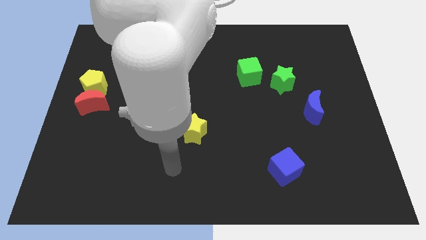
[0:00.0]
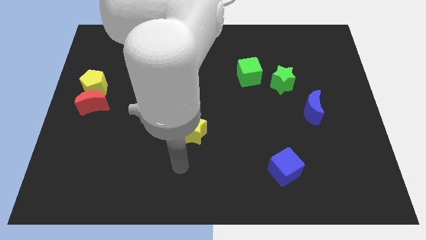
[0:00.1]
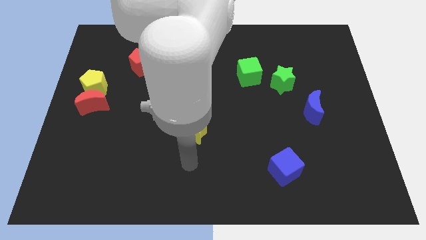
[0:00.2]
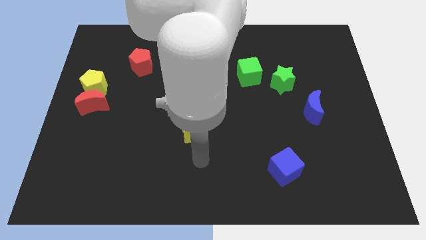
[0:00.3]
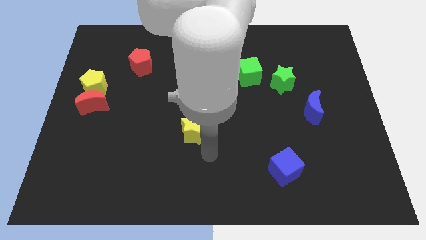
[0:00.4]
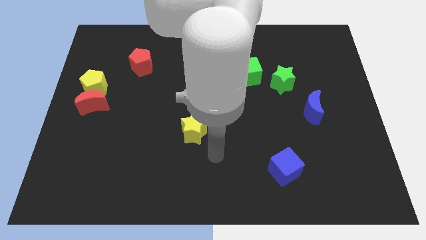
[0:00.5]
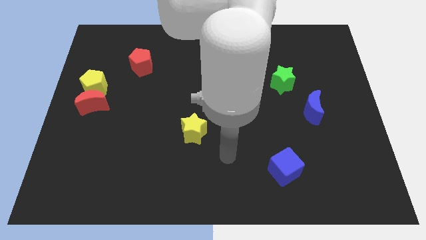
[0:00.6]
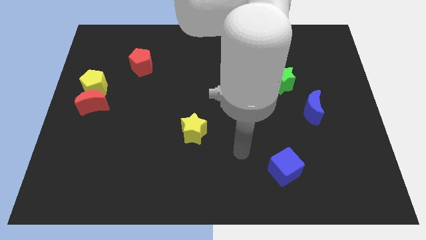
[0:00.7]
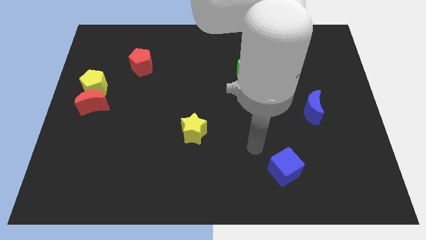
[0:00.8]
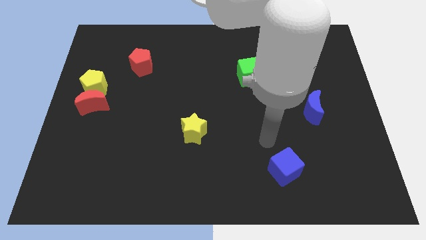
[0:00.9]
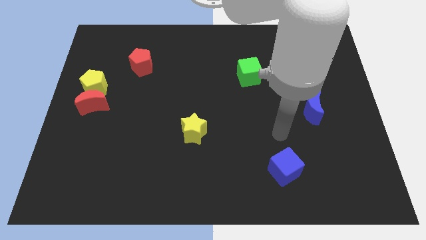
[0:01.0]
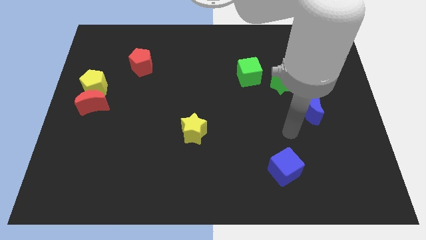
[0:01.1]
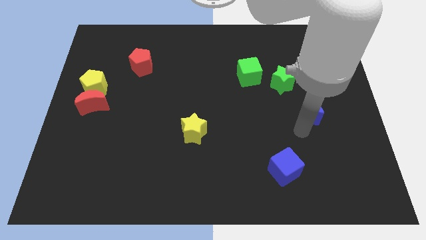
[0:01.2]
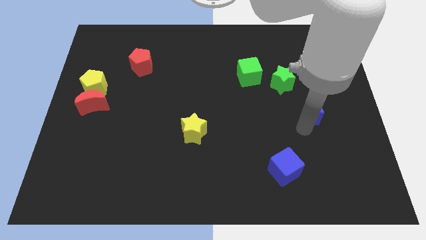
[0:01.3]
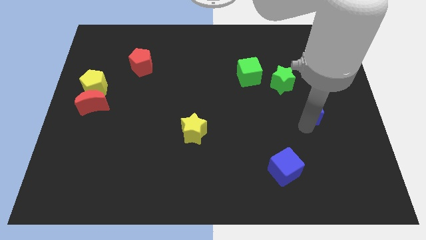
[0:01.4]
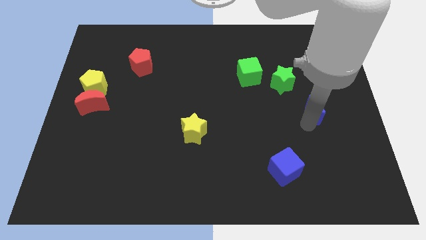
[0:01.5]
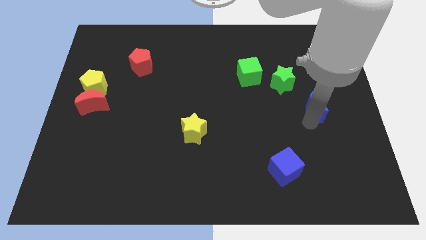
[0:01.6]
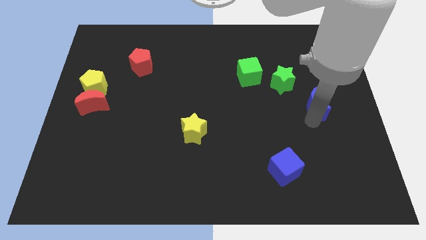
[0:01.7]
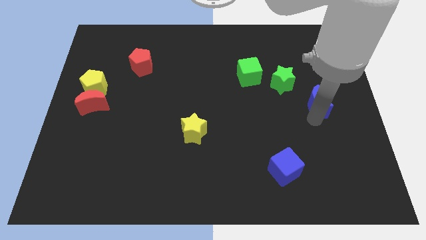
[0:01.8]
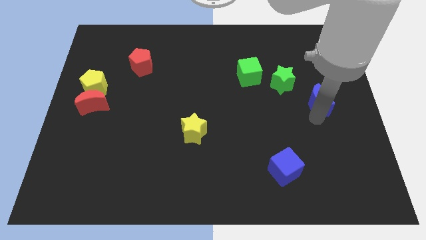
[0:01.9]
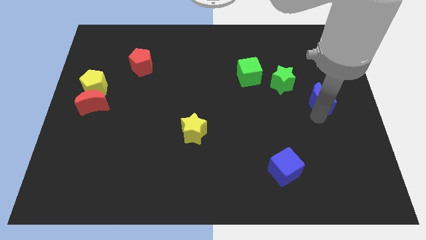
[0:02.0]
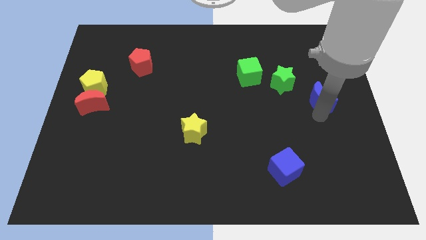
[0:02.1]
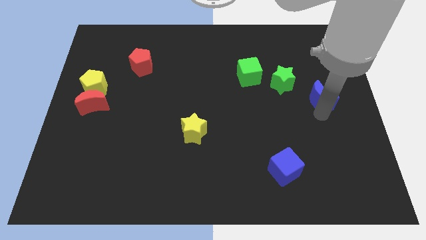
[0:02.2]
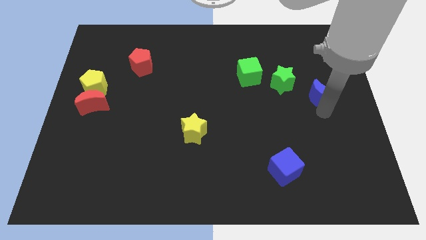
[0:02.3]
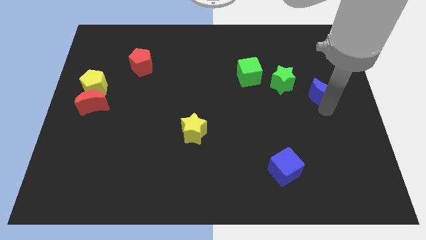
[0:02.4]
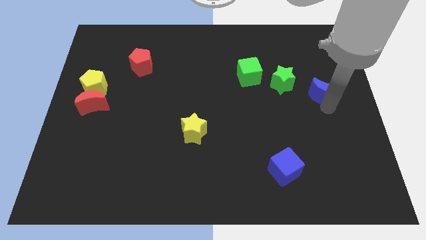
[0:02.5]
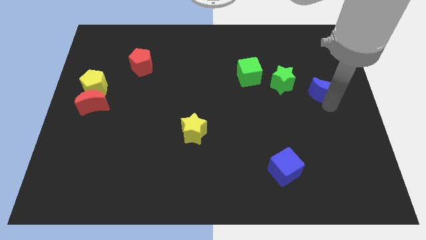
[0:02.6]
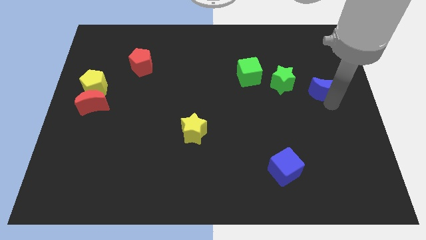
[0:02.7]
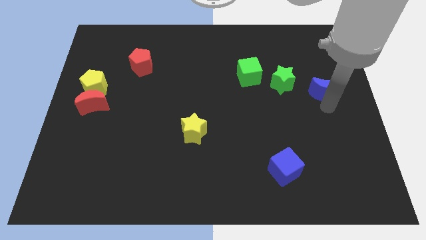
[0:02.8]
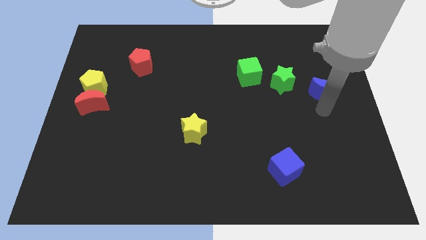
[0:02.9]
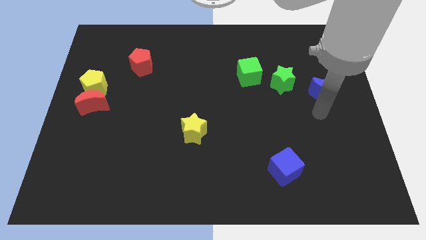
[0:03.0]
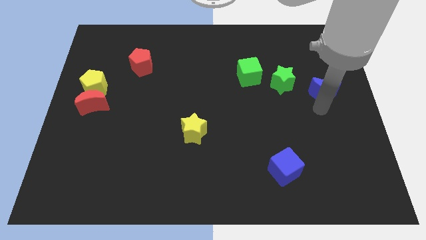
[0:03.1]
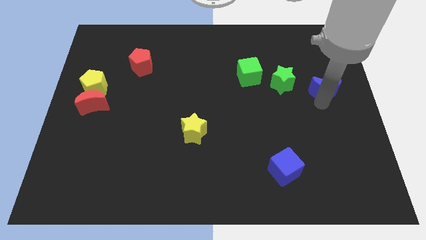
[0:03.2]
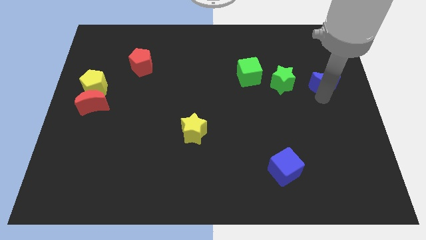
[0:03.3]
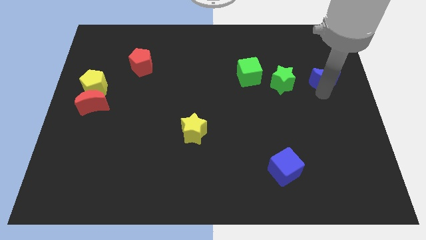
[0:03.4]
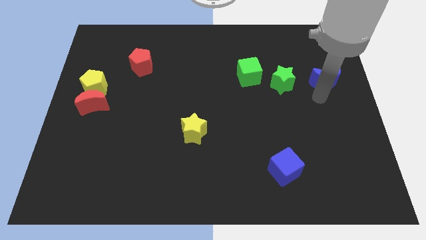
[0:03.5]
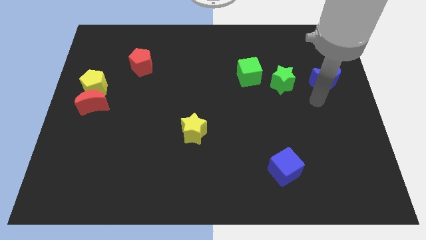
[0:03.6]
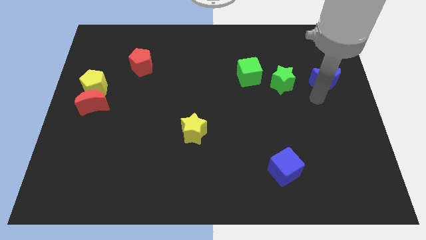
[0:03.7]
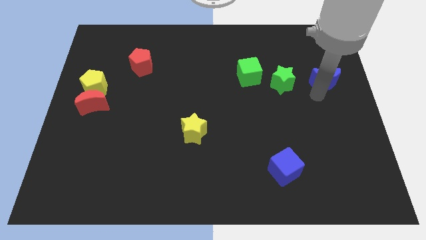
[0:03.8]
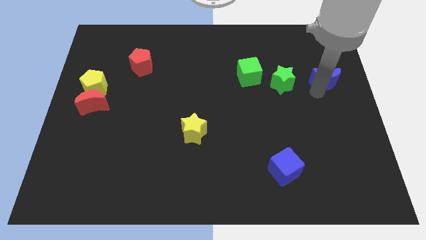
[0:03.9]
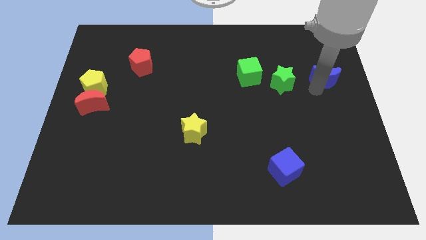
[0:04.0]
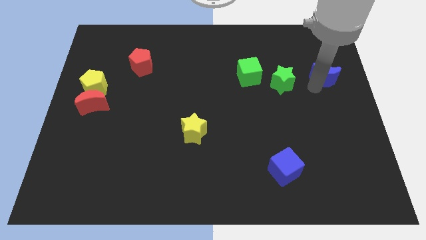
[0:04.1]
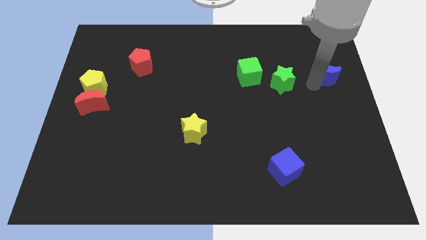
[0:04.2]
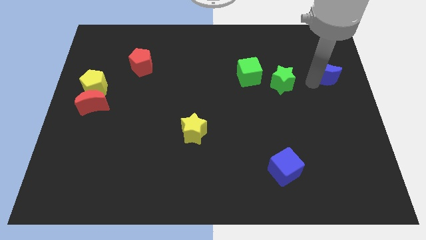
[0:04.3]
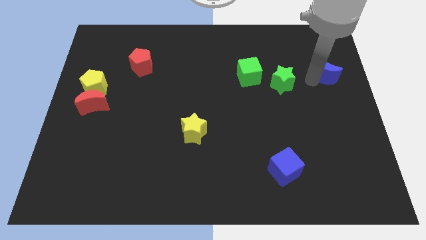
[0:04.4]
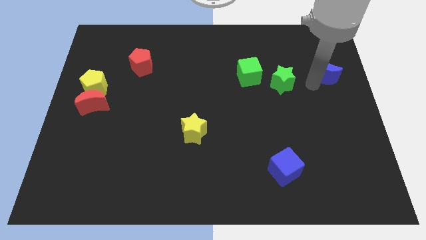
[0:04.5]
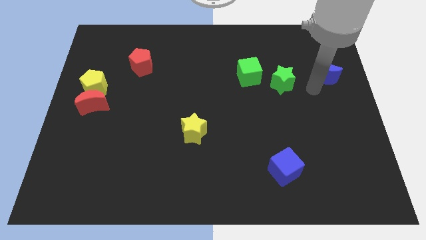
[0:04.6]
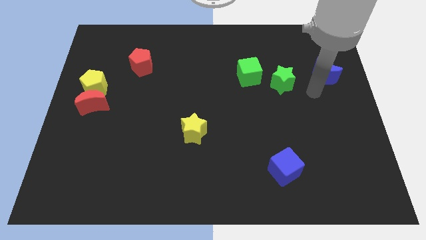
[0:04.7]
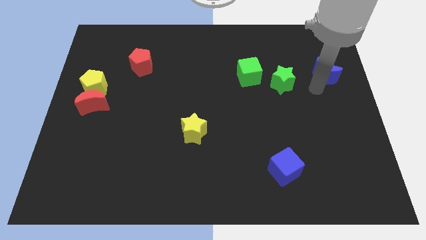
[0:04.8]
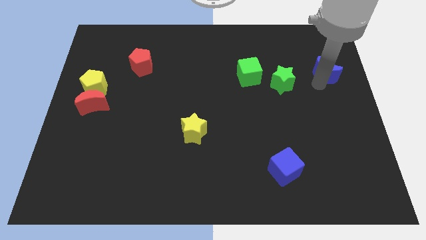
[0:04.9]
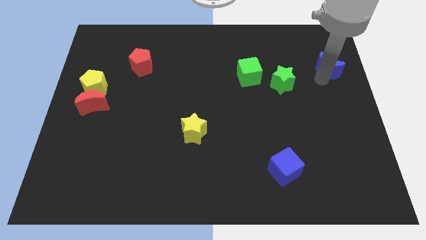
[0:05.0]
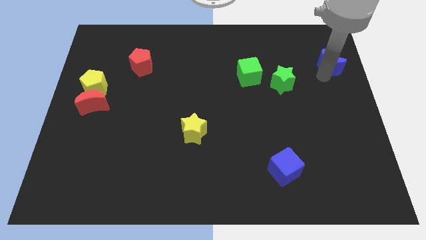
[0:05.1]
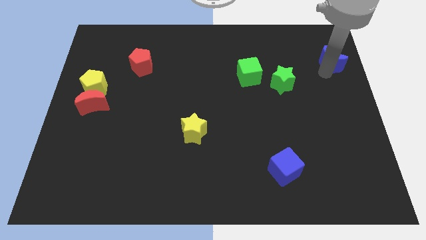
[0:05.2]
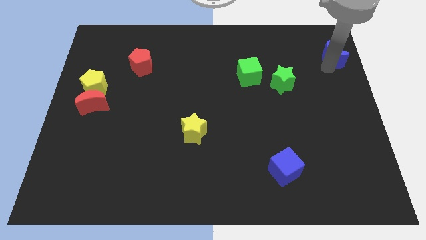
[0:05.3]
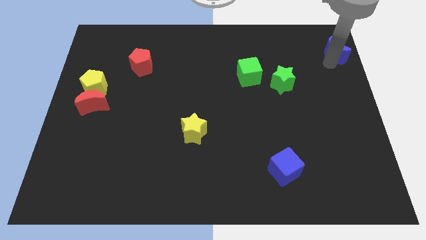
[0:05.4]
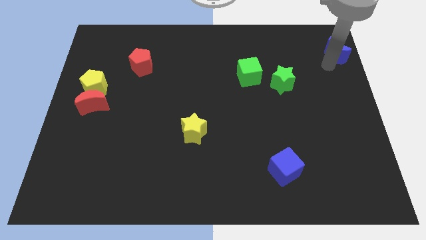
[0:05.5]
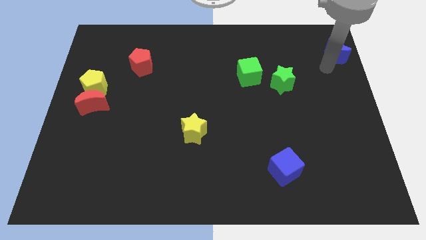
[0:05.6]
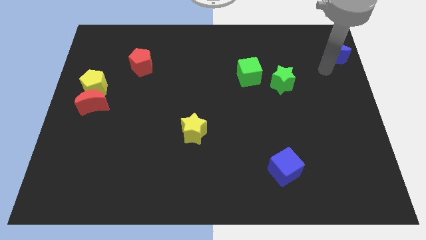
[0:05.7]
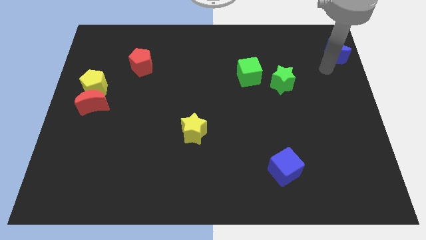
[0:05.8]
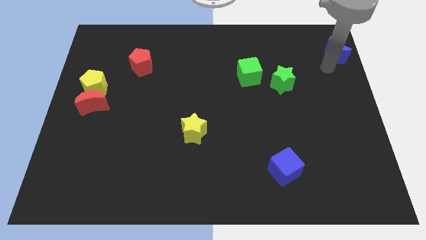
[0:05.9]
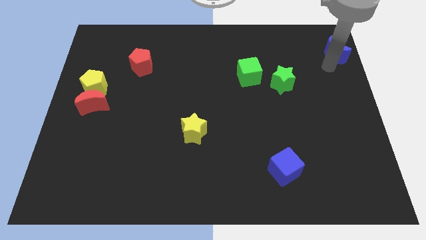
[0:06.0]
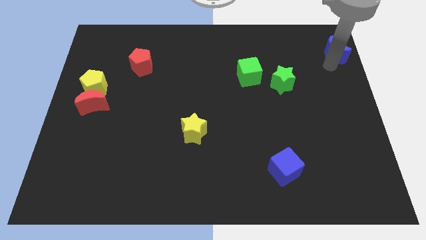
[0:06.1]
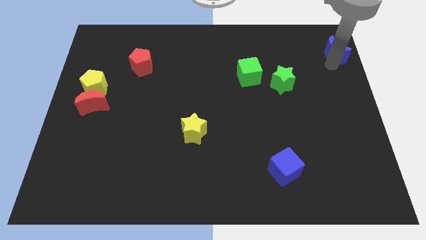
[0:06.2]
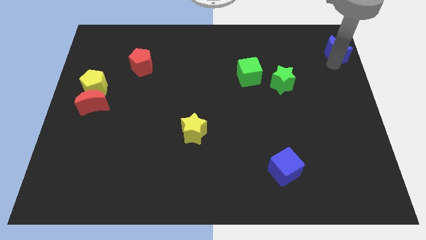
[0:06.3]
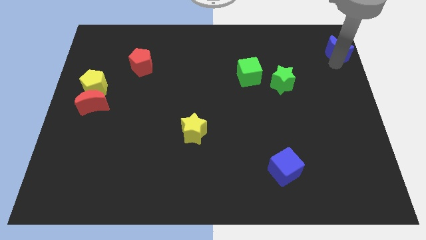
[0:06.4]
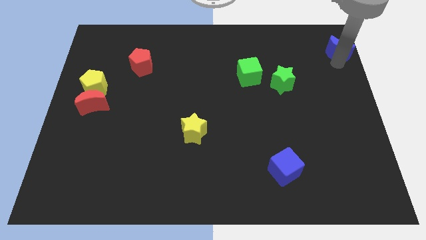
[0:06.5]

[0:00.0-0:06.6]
slide the blue moon to the top right corner
